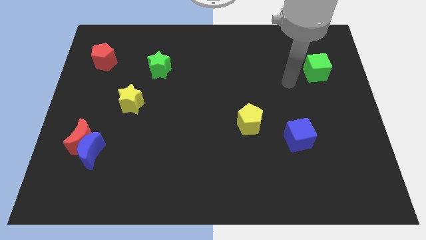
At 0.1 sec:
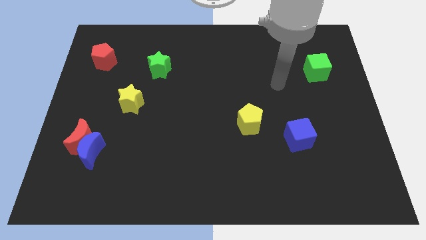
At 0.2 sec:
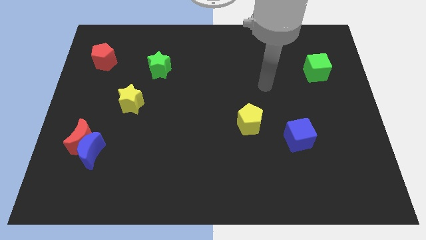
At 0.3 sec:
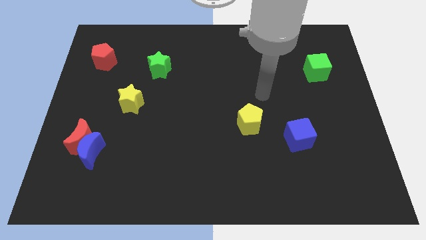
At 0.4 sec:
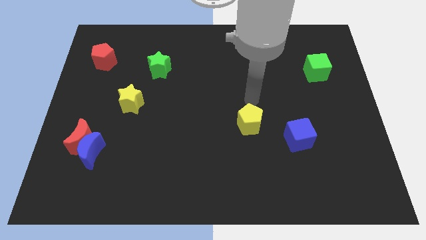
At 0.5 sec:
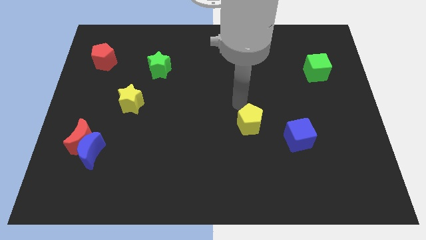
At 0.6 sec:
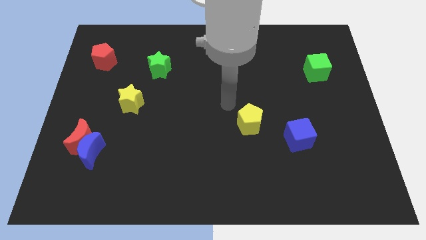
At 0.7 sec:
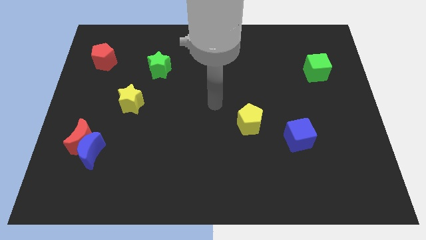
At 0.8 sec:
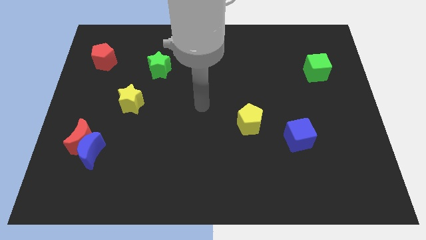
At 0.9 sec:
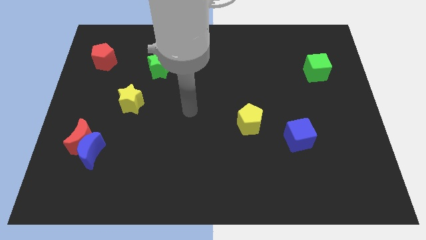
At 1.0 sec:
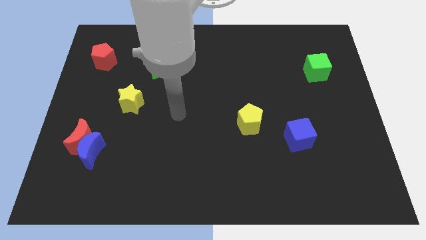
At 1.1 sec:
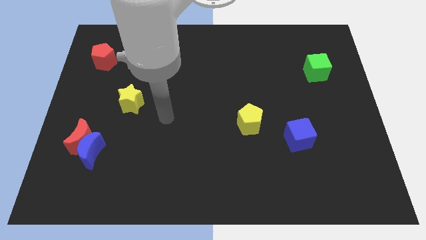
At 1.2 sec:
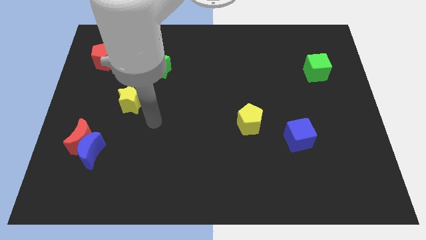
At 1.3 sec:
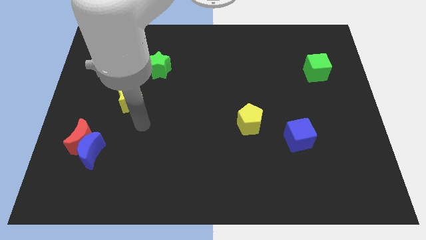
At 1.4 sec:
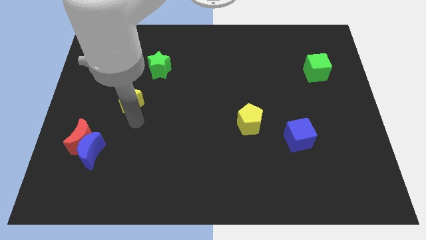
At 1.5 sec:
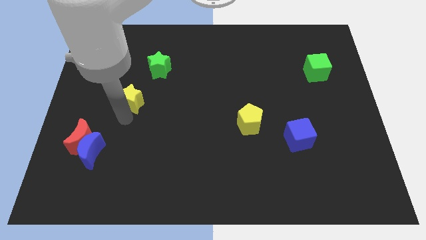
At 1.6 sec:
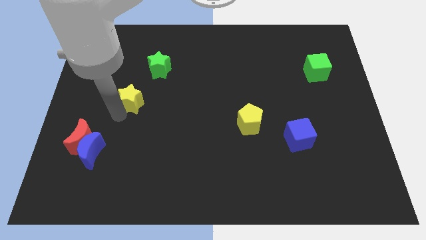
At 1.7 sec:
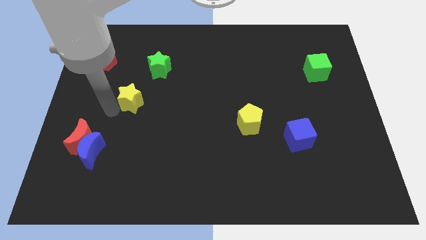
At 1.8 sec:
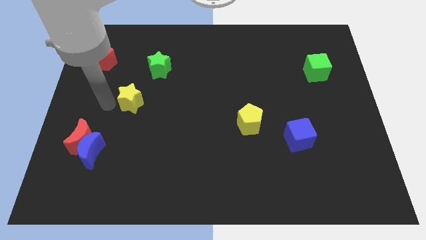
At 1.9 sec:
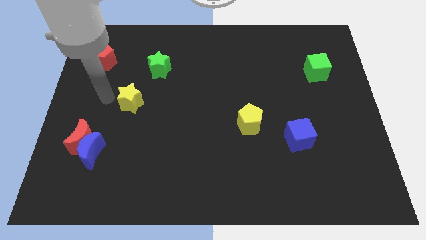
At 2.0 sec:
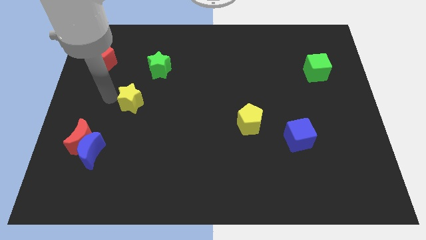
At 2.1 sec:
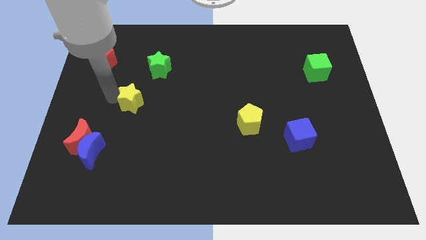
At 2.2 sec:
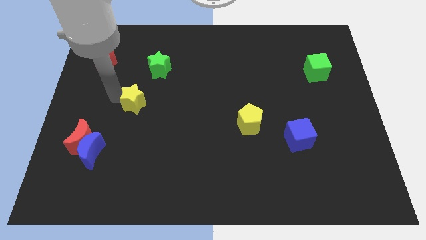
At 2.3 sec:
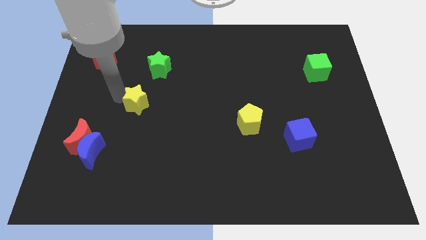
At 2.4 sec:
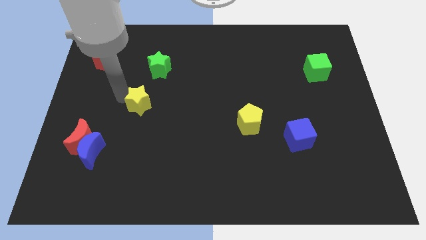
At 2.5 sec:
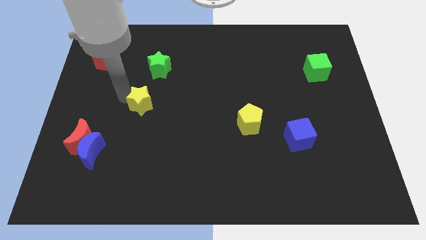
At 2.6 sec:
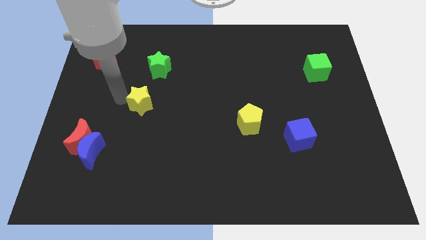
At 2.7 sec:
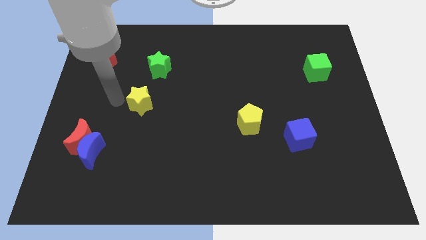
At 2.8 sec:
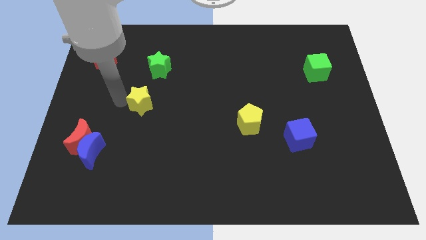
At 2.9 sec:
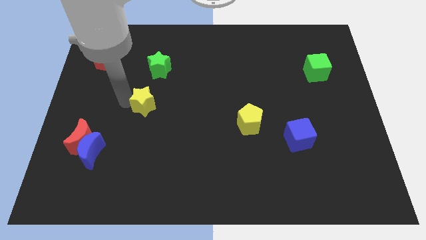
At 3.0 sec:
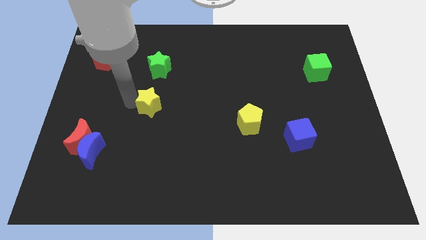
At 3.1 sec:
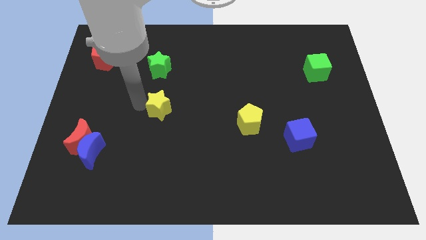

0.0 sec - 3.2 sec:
slide the yellow star slightly to the right

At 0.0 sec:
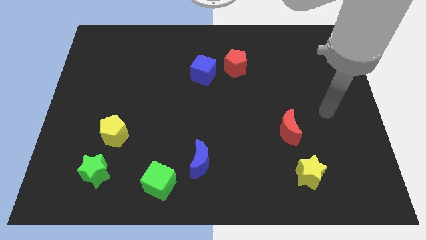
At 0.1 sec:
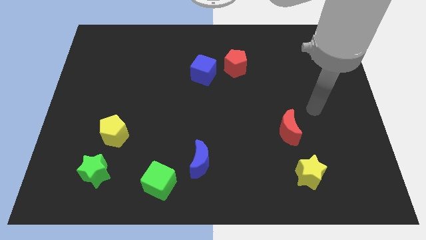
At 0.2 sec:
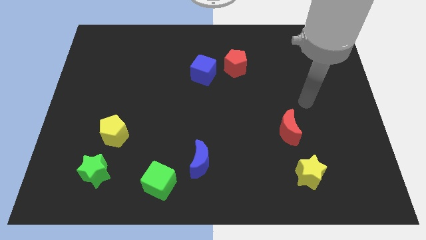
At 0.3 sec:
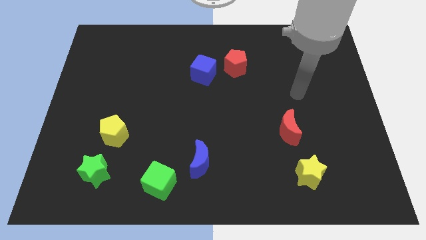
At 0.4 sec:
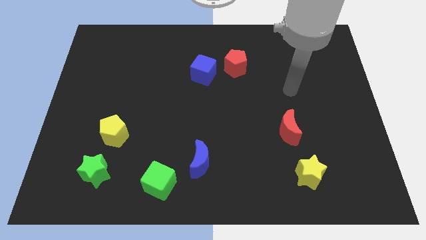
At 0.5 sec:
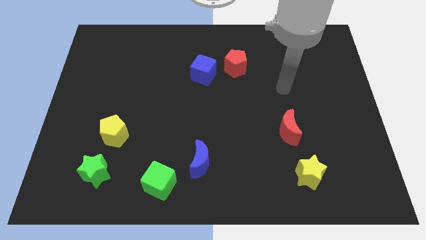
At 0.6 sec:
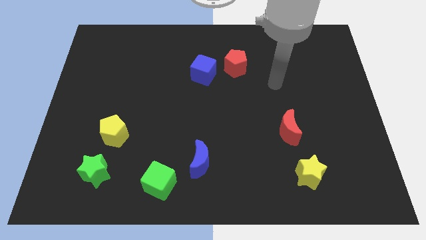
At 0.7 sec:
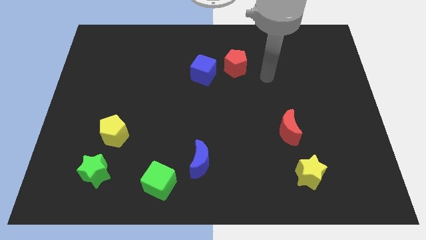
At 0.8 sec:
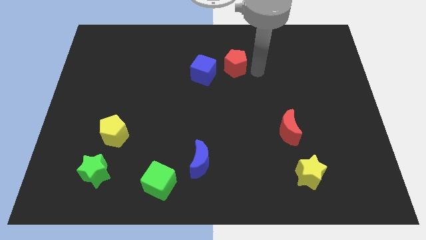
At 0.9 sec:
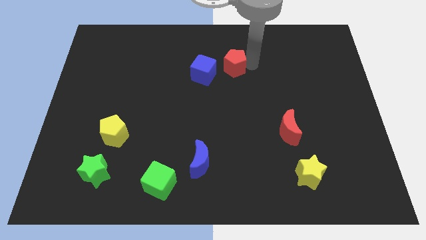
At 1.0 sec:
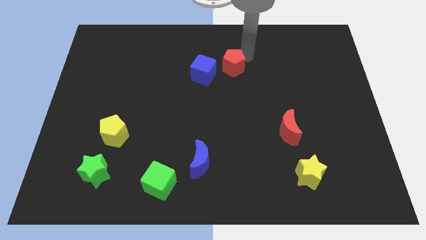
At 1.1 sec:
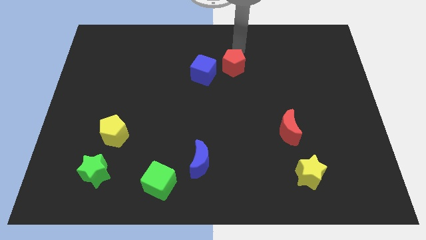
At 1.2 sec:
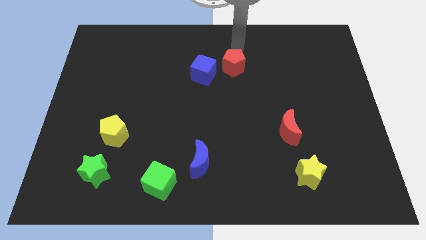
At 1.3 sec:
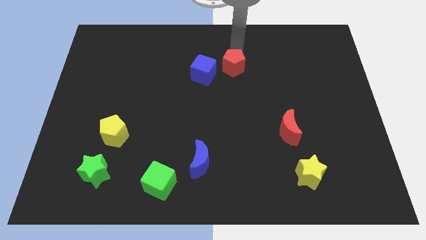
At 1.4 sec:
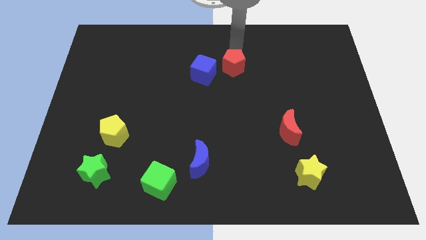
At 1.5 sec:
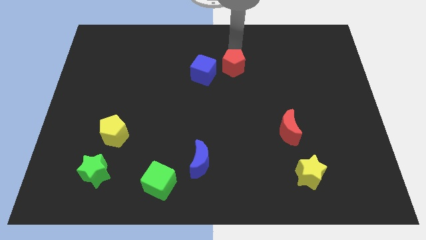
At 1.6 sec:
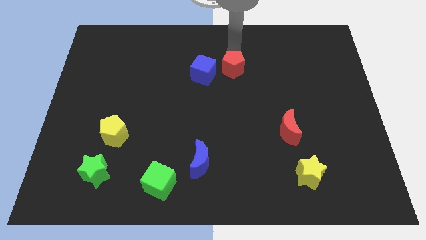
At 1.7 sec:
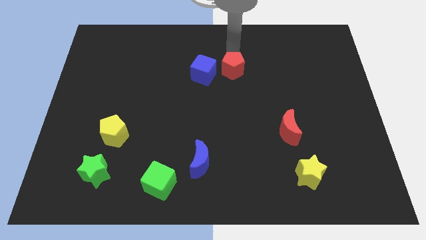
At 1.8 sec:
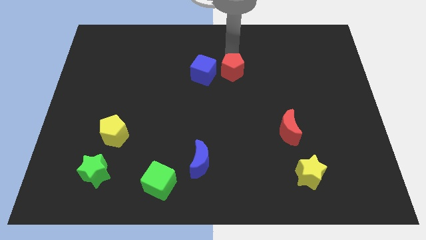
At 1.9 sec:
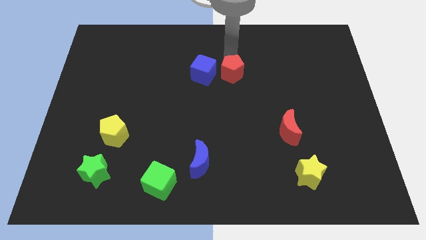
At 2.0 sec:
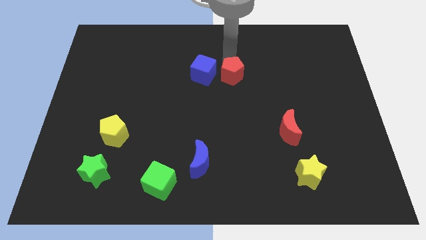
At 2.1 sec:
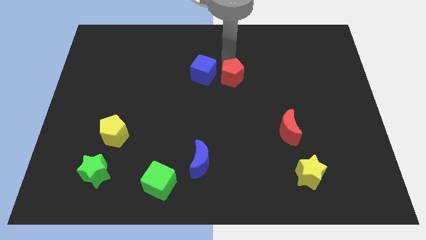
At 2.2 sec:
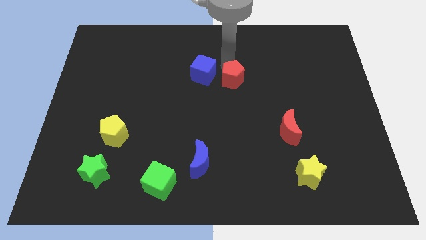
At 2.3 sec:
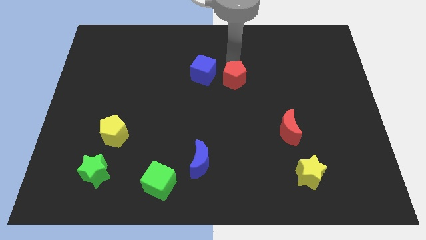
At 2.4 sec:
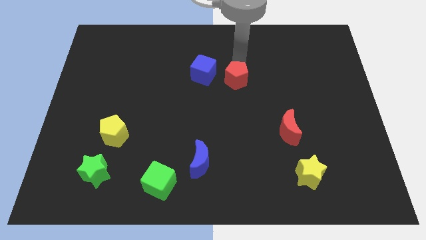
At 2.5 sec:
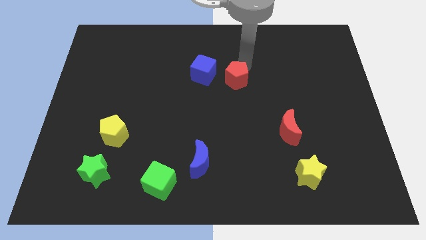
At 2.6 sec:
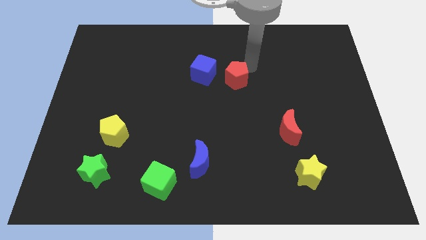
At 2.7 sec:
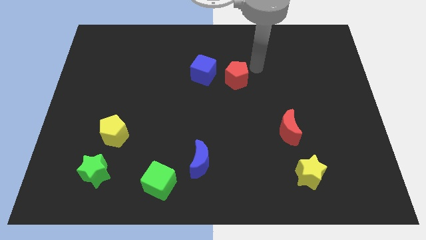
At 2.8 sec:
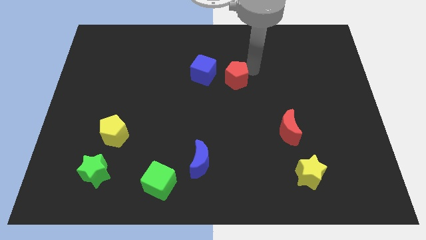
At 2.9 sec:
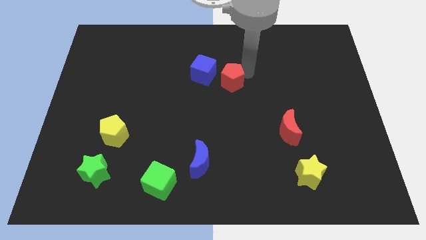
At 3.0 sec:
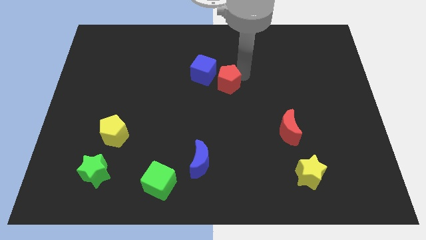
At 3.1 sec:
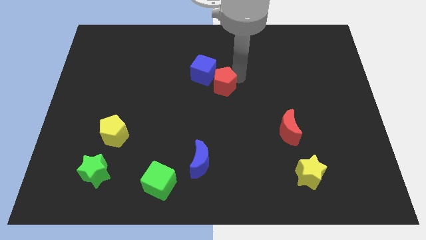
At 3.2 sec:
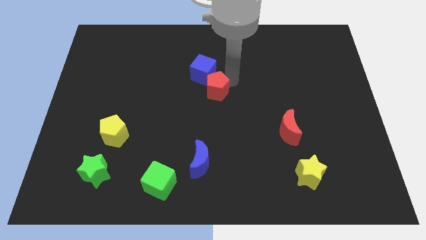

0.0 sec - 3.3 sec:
push the red pentagon down and then to the left slightly

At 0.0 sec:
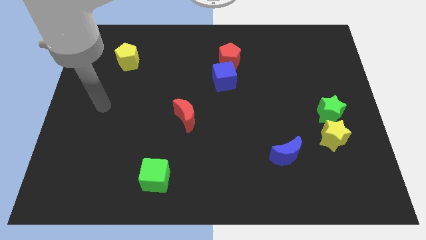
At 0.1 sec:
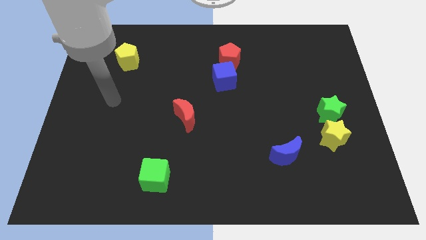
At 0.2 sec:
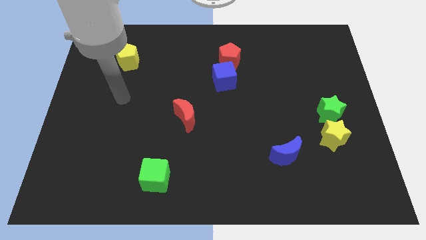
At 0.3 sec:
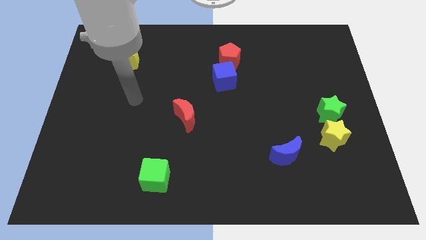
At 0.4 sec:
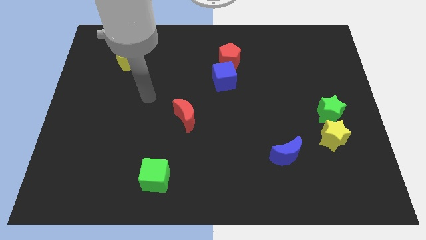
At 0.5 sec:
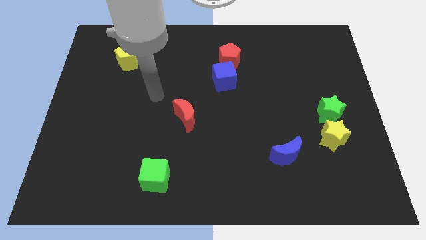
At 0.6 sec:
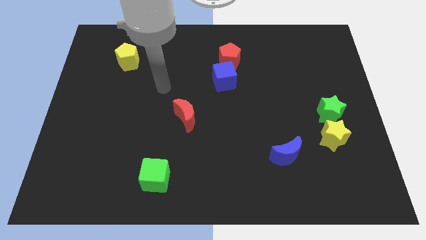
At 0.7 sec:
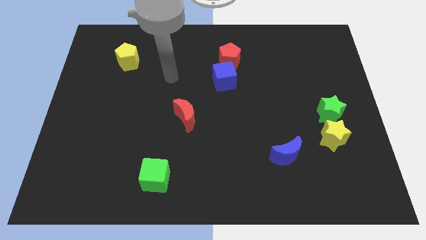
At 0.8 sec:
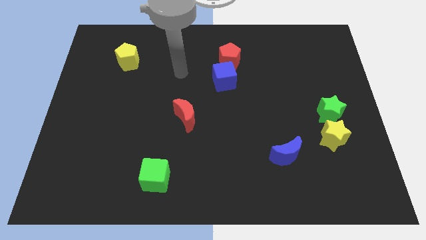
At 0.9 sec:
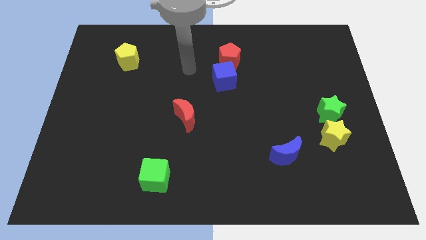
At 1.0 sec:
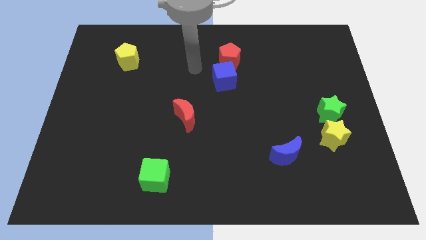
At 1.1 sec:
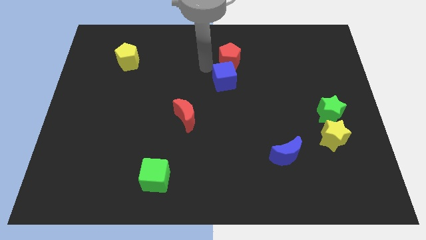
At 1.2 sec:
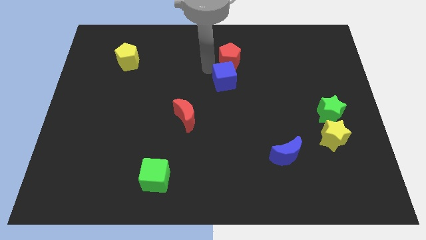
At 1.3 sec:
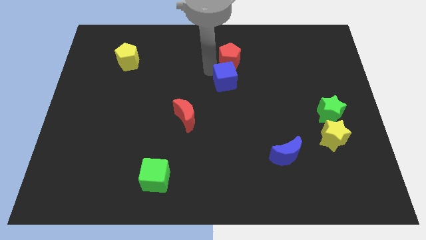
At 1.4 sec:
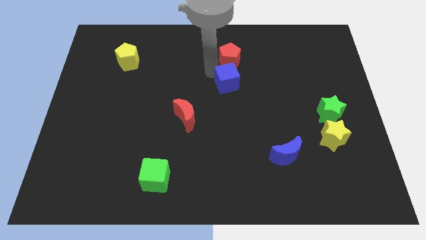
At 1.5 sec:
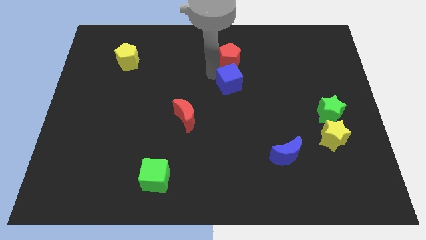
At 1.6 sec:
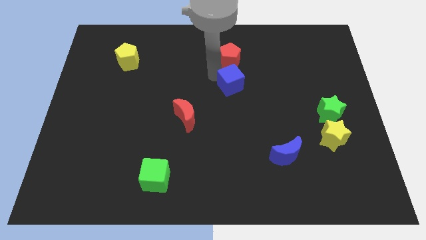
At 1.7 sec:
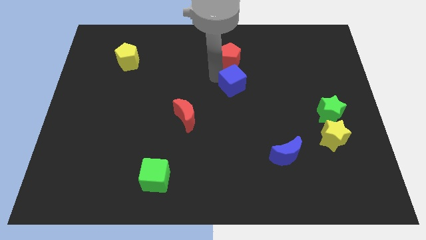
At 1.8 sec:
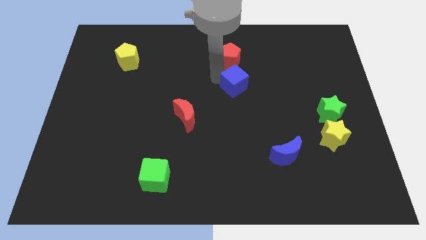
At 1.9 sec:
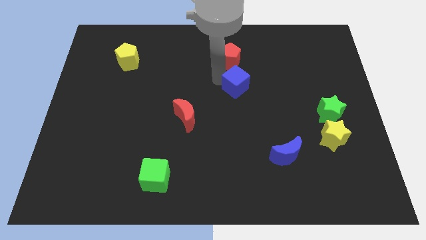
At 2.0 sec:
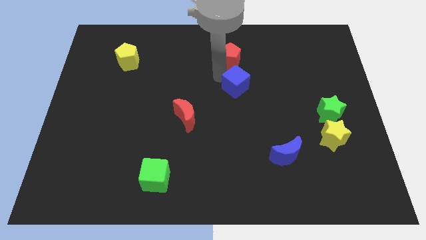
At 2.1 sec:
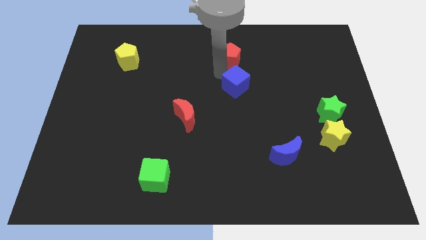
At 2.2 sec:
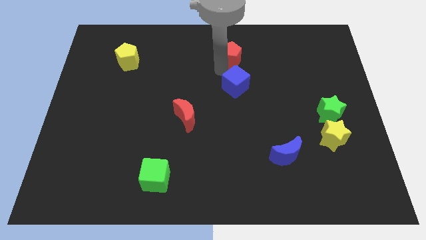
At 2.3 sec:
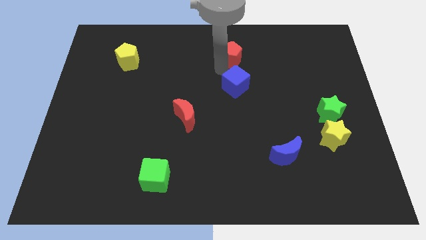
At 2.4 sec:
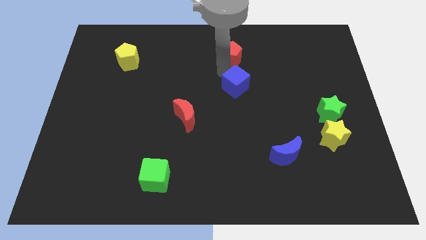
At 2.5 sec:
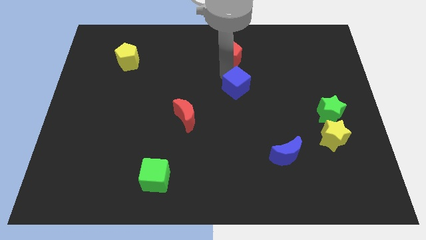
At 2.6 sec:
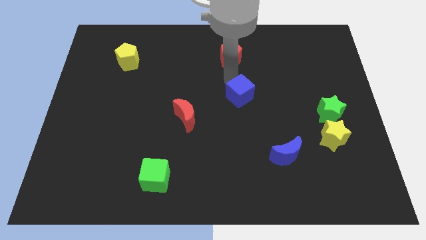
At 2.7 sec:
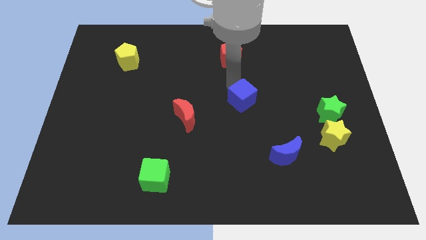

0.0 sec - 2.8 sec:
move the blue cube downwards and right a little
